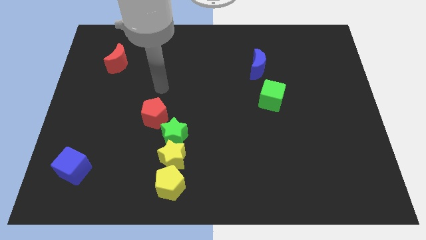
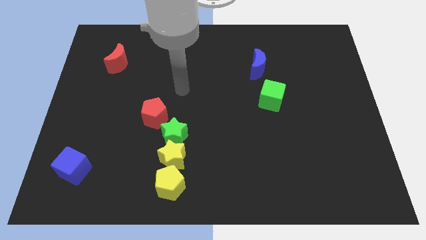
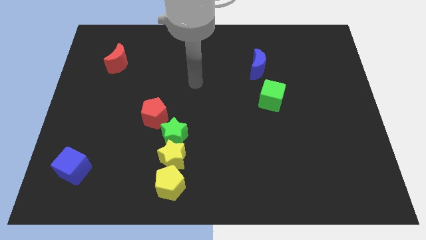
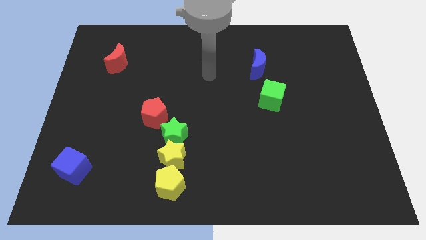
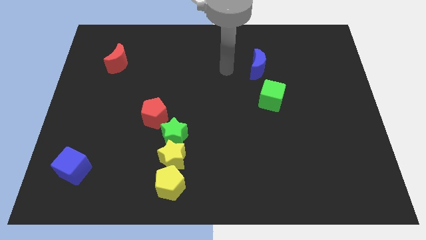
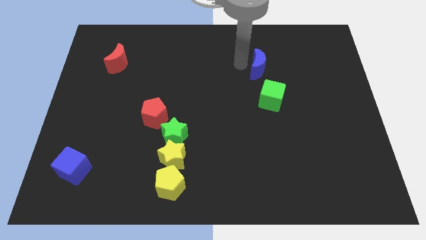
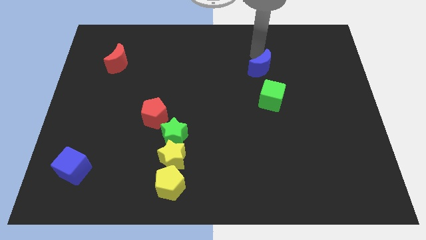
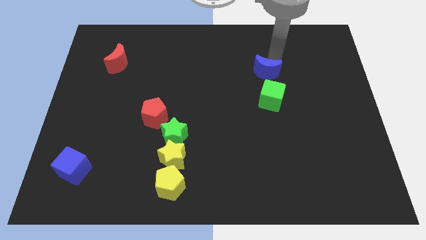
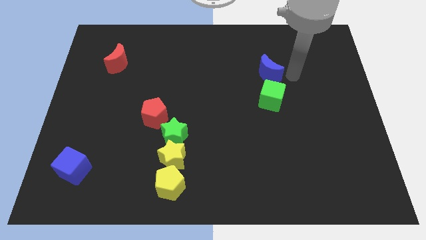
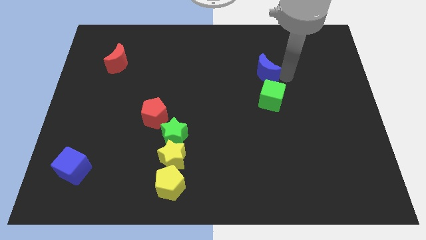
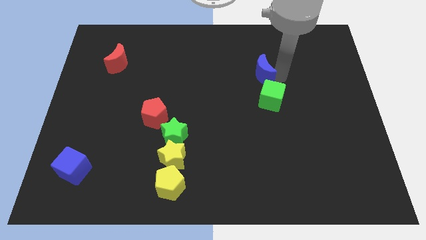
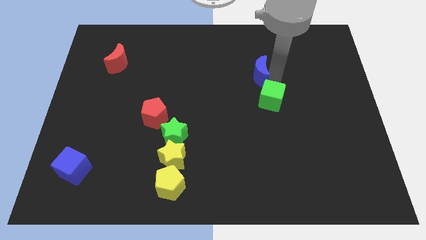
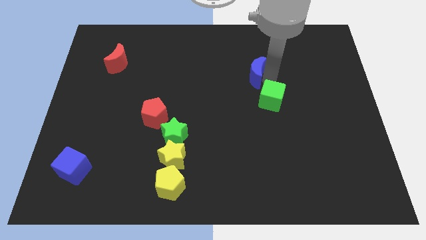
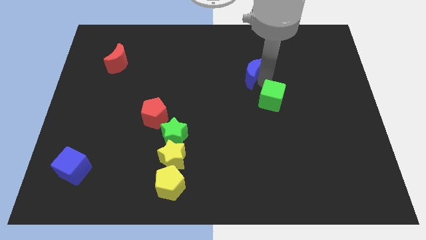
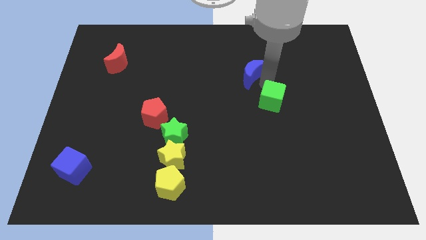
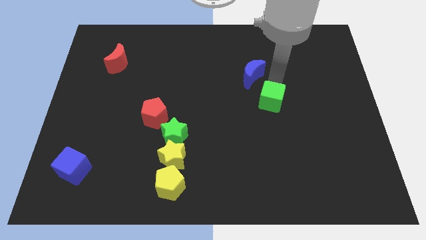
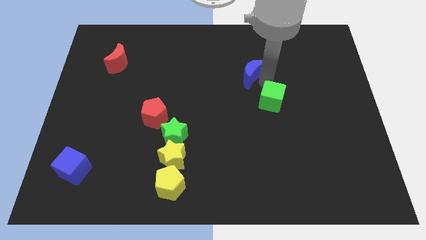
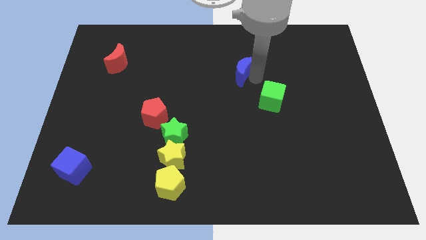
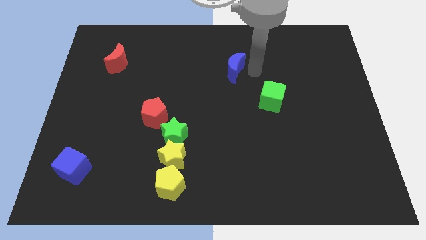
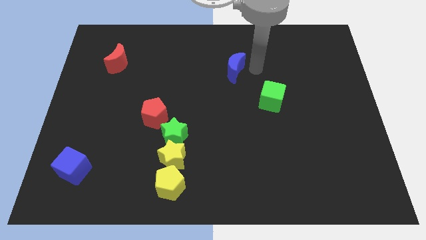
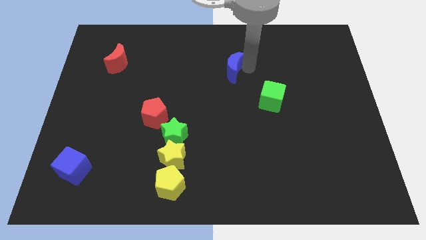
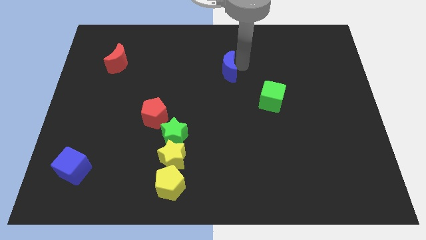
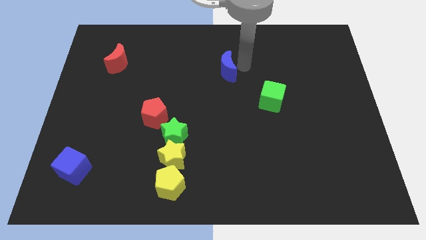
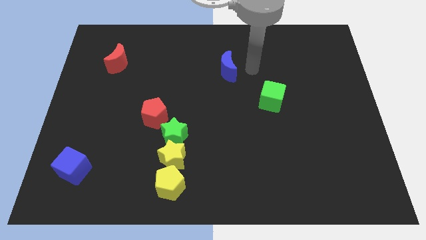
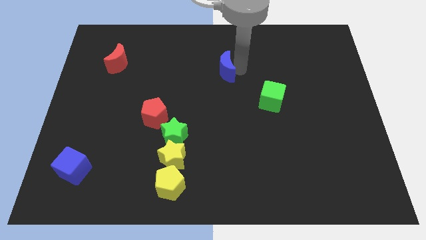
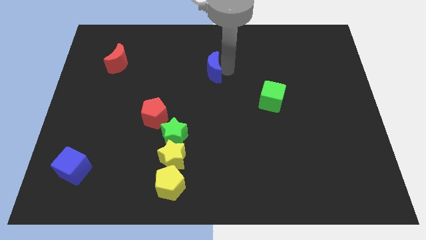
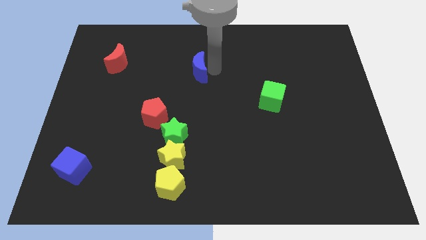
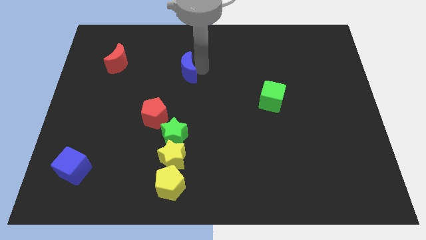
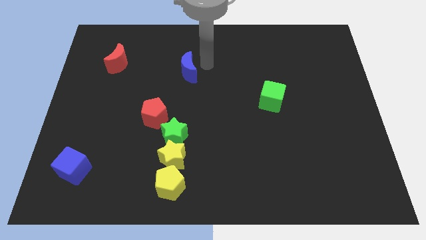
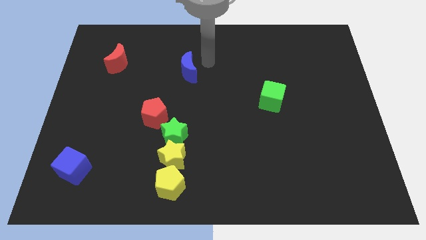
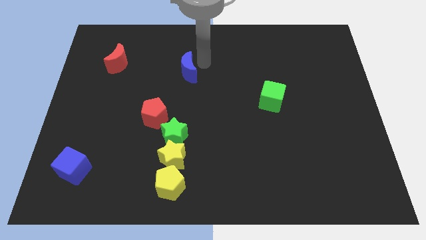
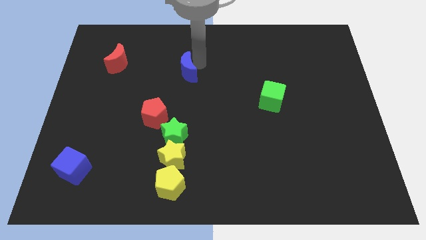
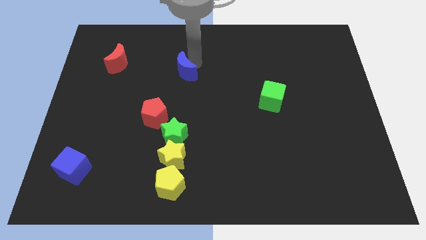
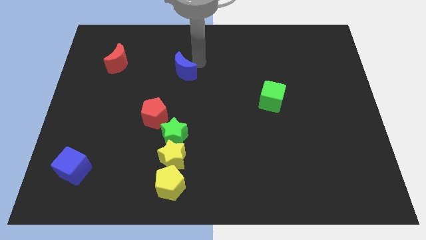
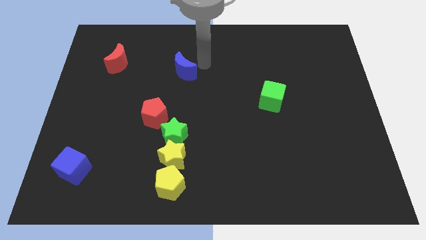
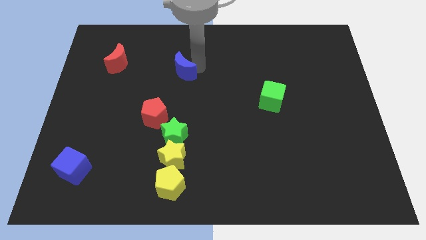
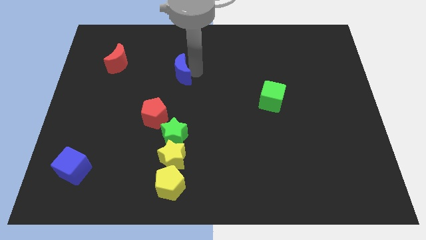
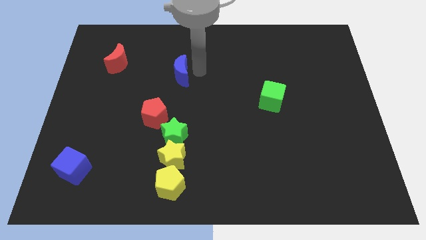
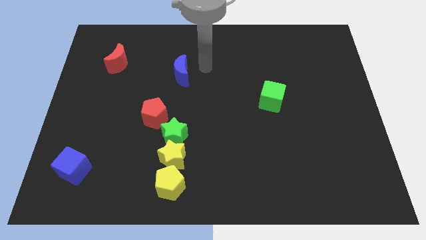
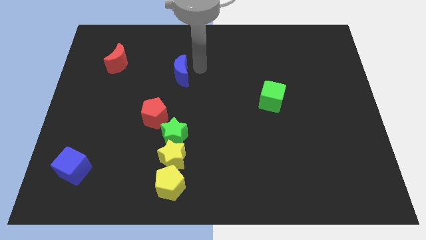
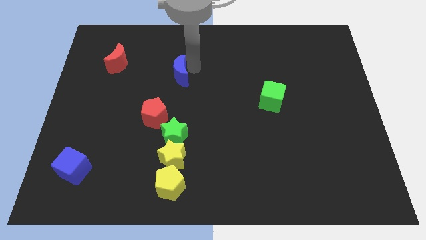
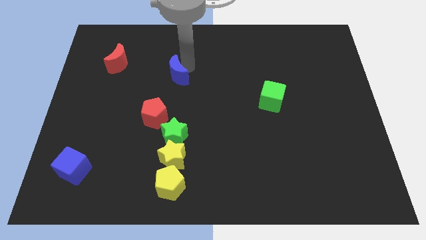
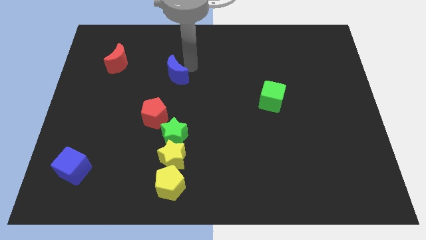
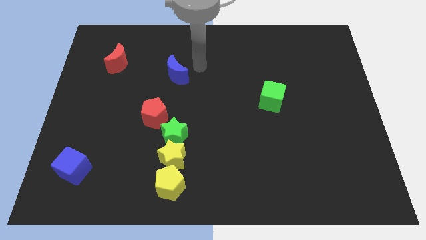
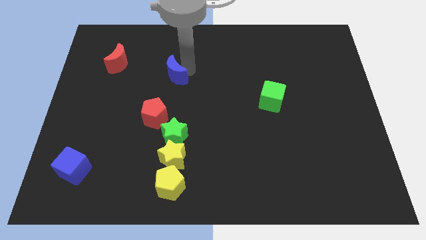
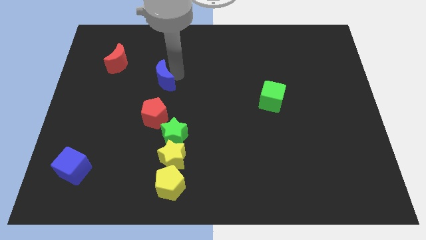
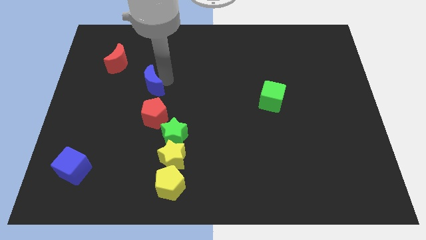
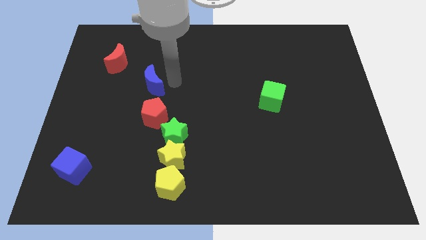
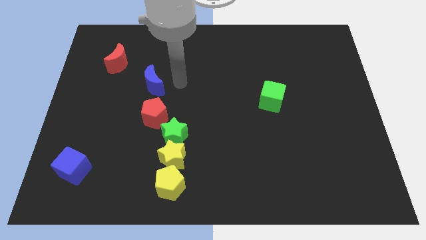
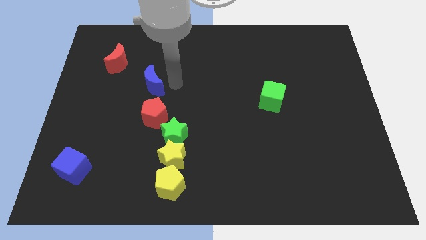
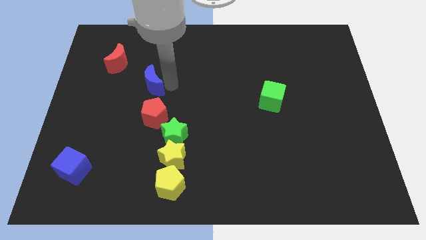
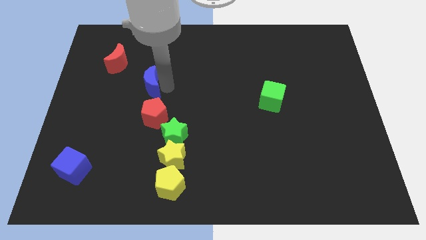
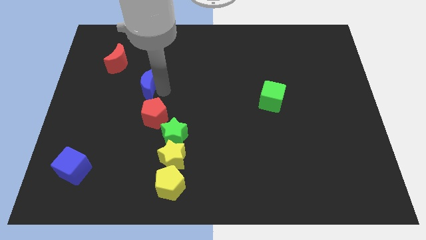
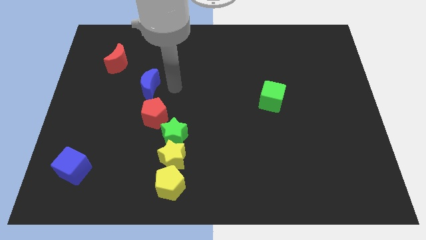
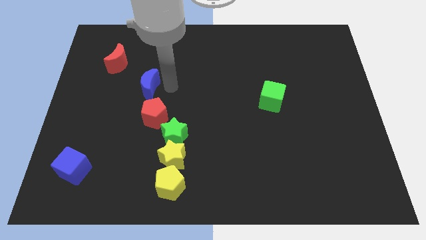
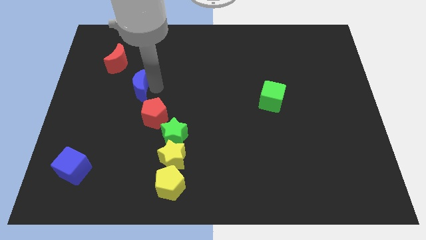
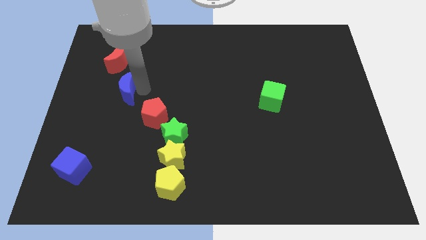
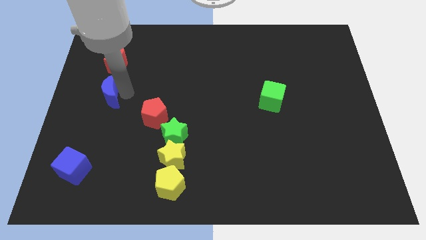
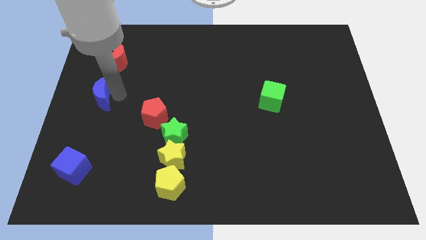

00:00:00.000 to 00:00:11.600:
put the blue moon to the left side
